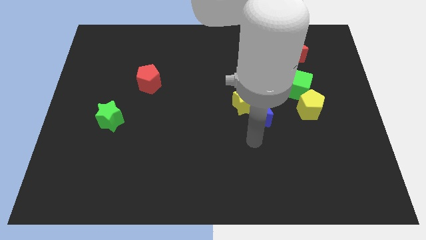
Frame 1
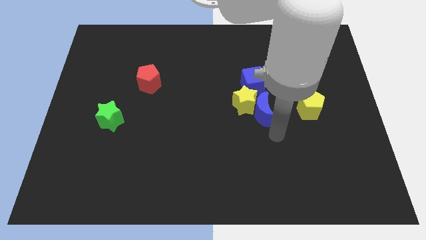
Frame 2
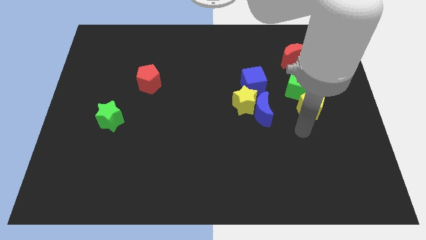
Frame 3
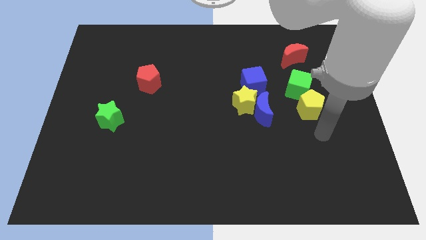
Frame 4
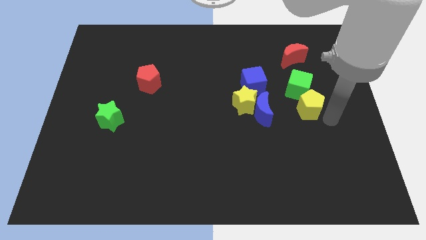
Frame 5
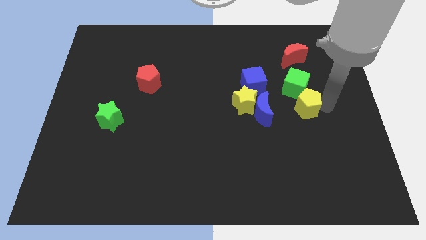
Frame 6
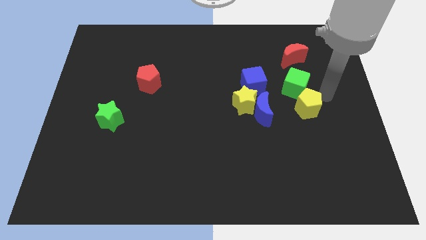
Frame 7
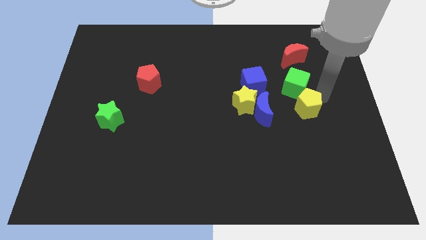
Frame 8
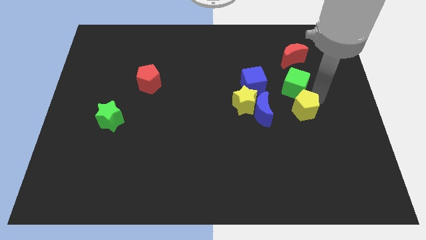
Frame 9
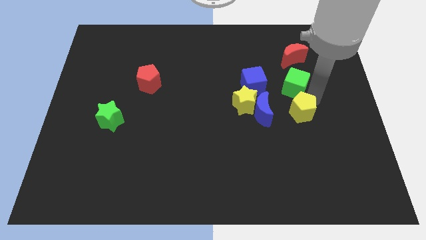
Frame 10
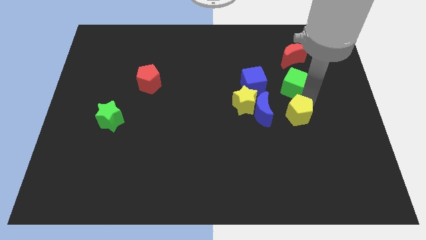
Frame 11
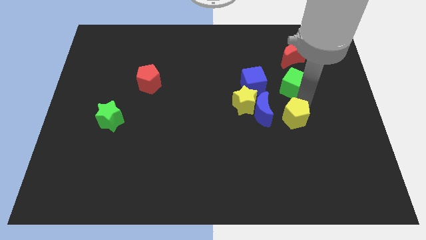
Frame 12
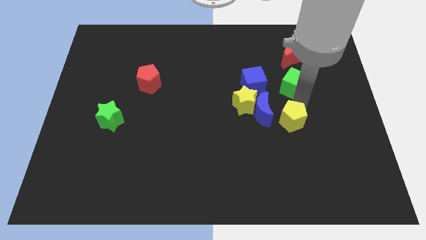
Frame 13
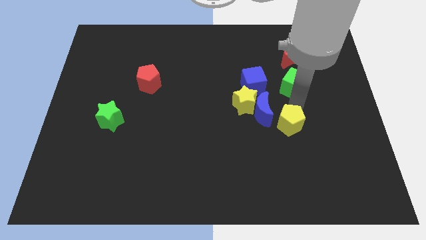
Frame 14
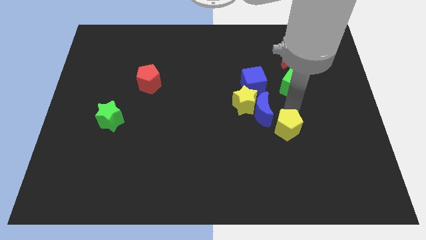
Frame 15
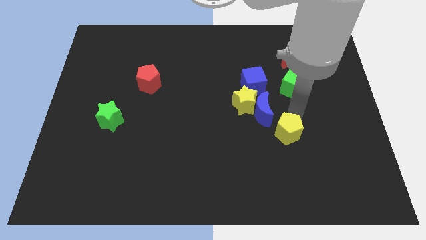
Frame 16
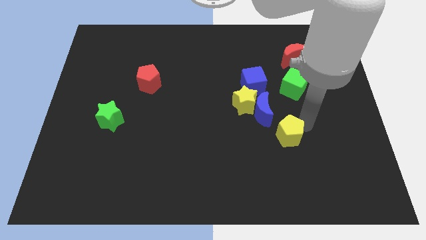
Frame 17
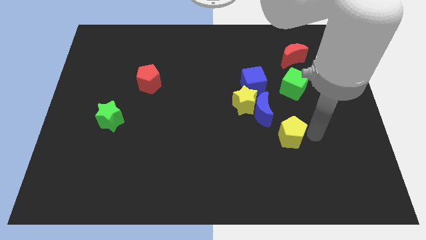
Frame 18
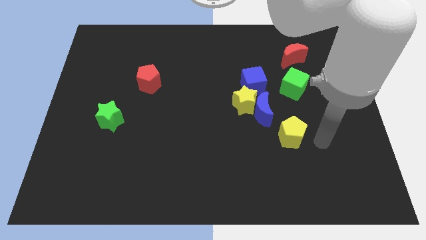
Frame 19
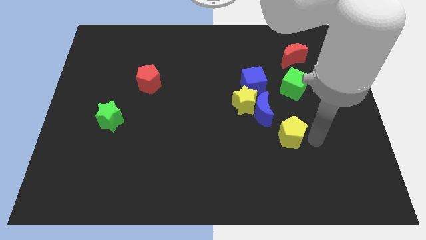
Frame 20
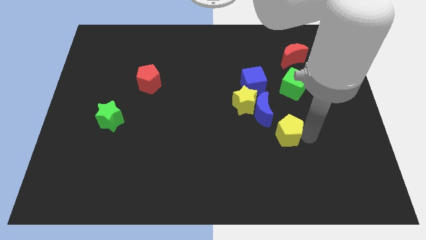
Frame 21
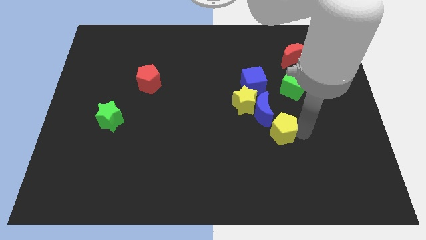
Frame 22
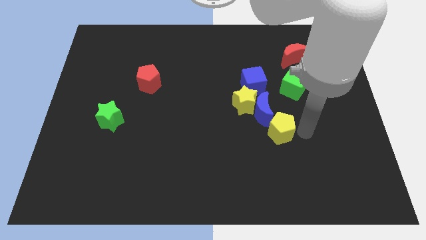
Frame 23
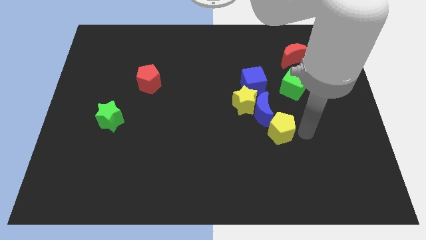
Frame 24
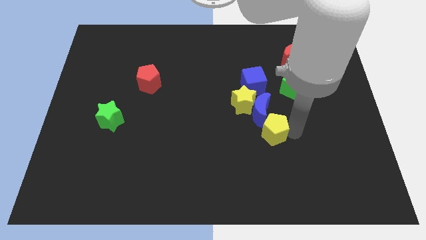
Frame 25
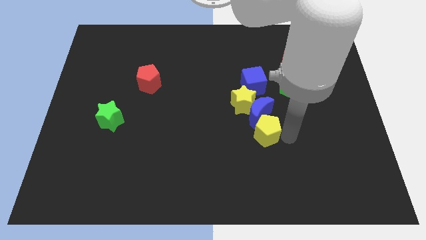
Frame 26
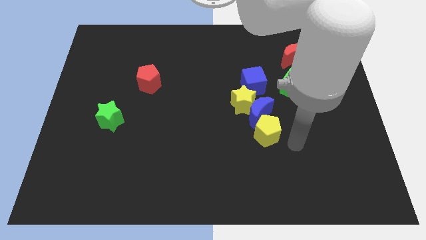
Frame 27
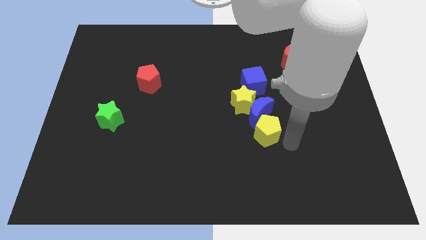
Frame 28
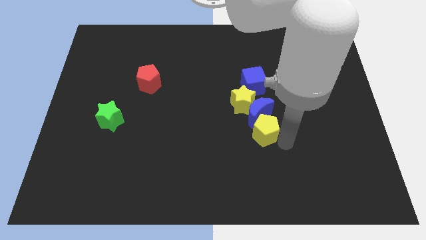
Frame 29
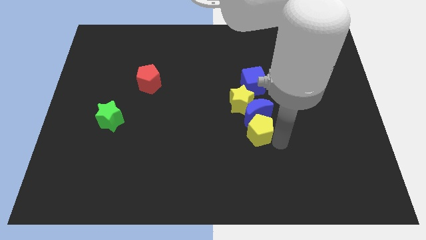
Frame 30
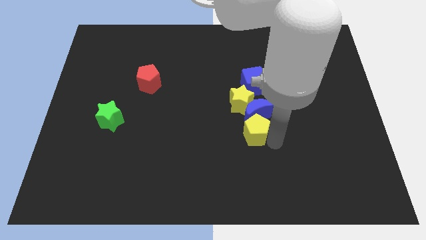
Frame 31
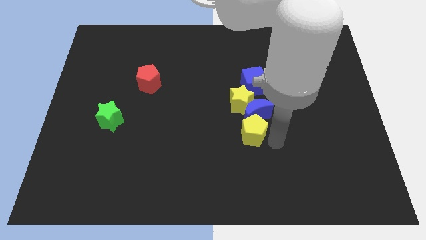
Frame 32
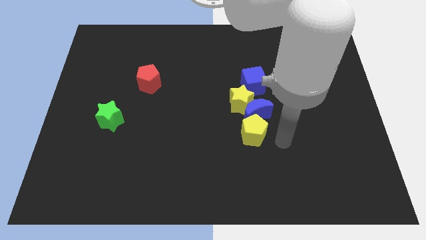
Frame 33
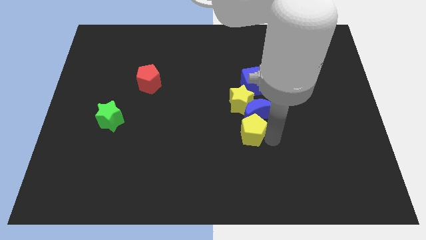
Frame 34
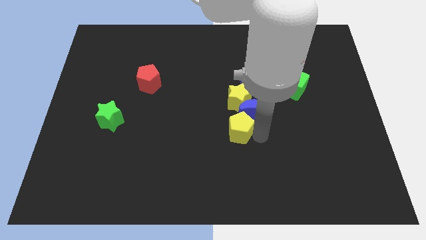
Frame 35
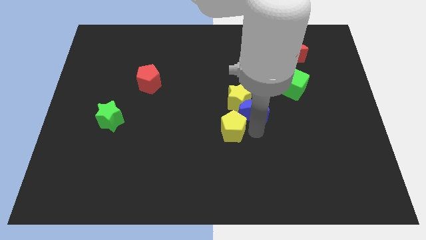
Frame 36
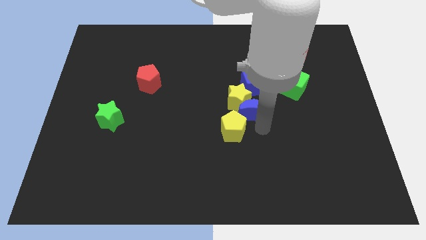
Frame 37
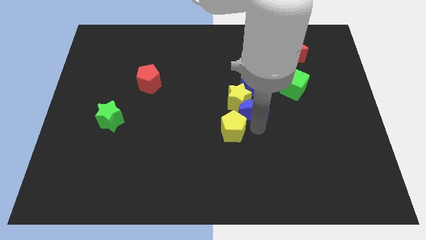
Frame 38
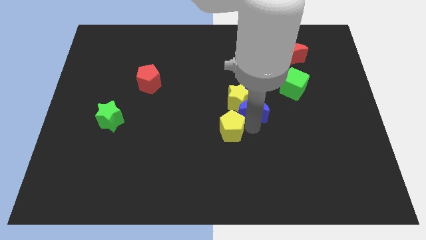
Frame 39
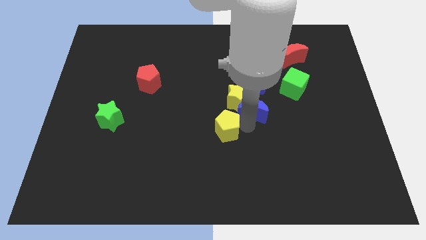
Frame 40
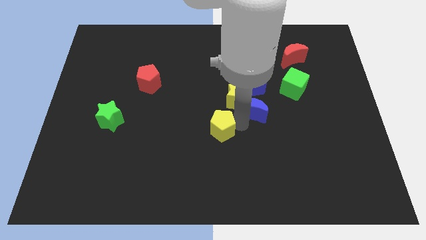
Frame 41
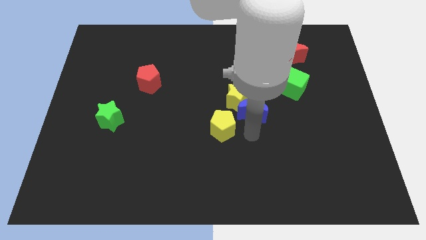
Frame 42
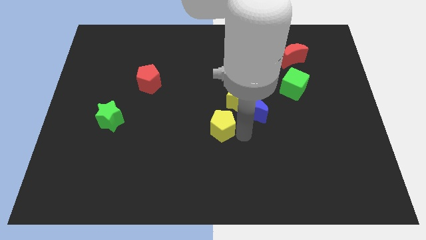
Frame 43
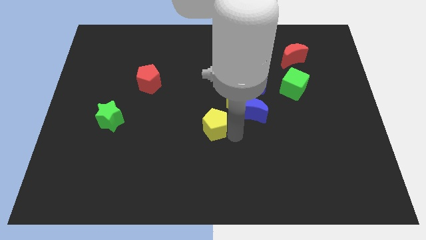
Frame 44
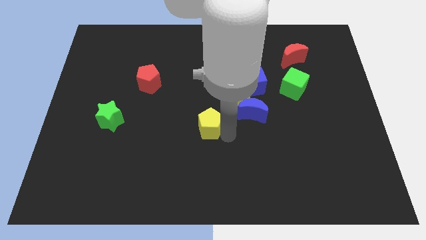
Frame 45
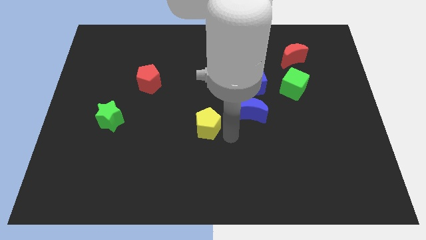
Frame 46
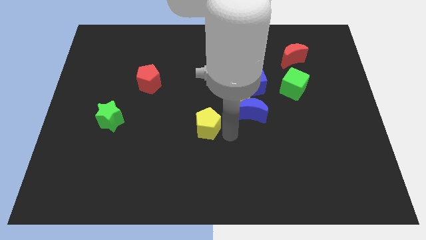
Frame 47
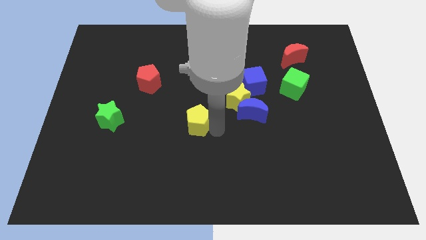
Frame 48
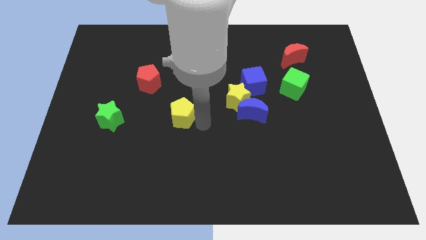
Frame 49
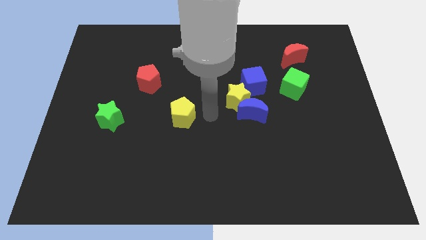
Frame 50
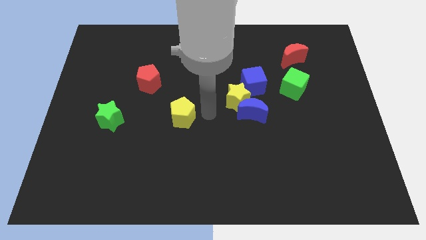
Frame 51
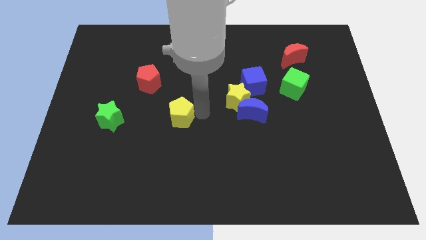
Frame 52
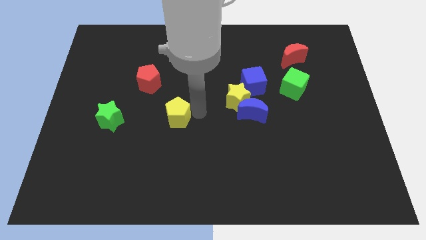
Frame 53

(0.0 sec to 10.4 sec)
put the yellow pentagon right of the green star

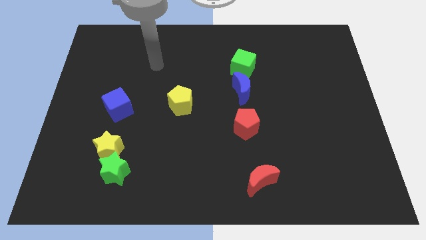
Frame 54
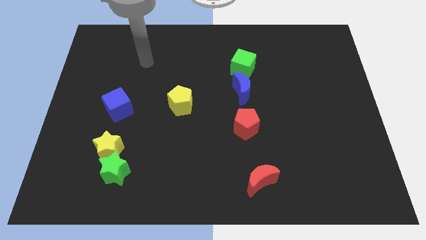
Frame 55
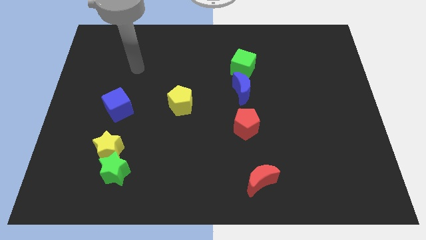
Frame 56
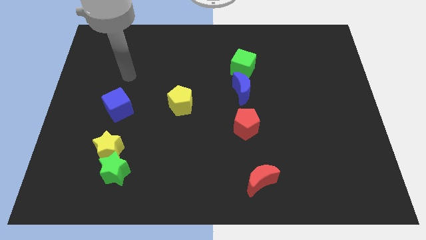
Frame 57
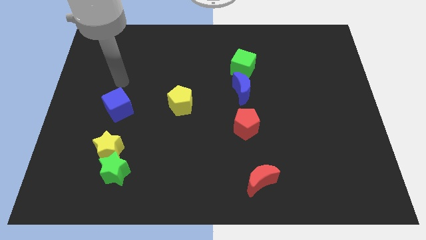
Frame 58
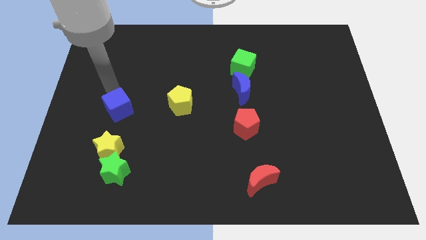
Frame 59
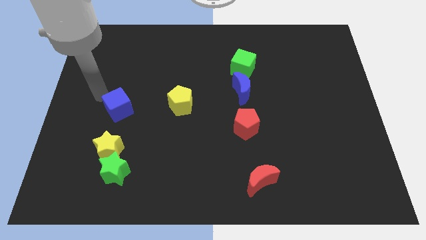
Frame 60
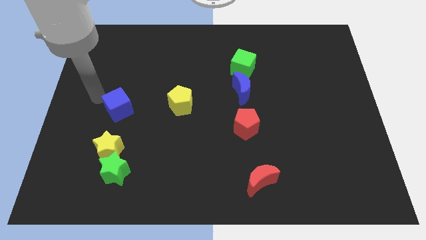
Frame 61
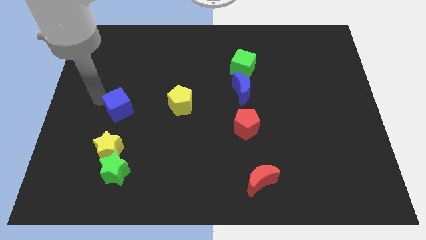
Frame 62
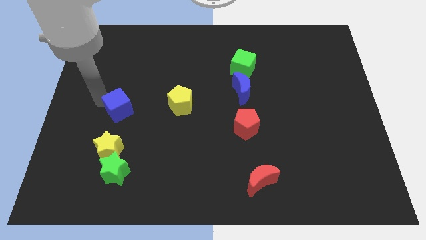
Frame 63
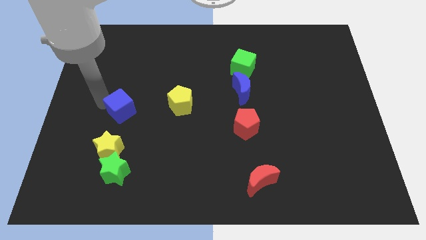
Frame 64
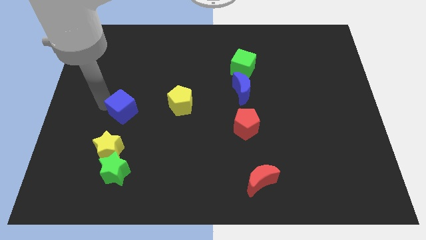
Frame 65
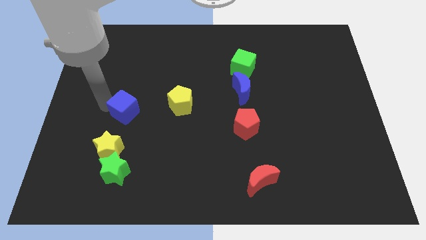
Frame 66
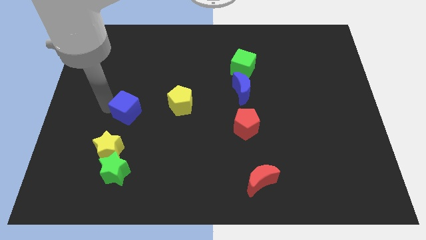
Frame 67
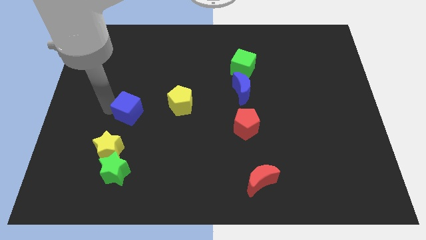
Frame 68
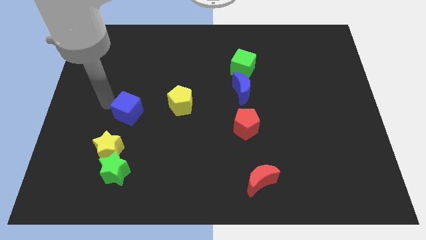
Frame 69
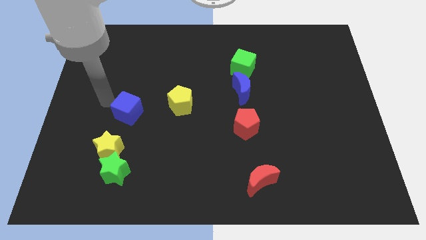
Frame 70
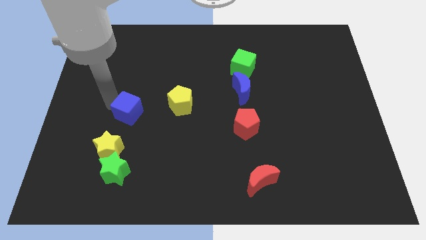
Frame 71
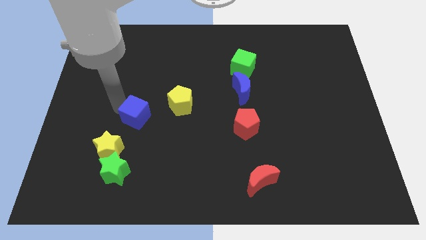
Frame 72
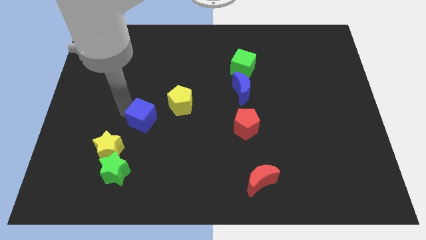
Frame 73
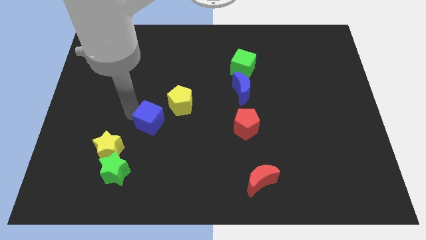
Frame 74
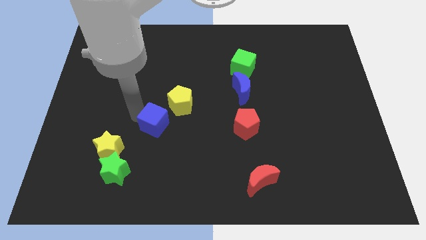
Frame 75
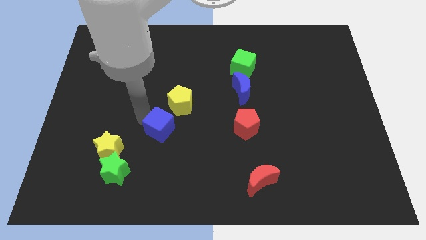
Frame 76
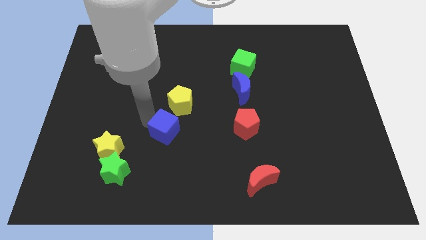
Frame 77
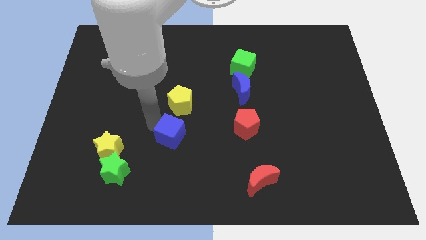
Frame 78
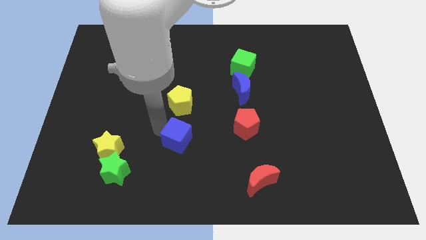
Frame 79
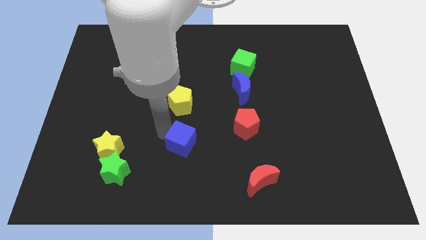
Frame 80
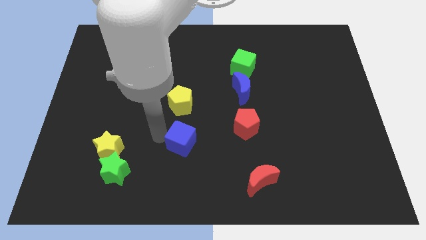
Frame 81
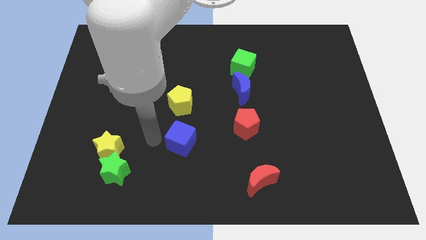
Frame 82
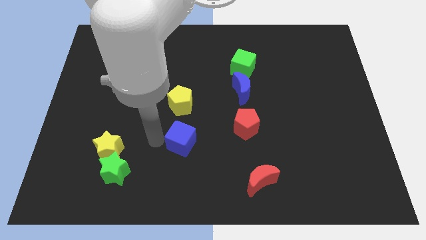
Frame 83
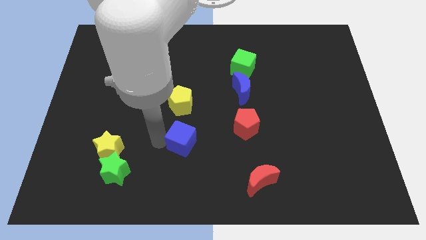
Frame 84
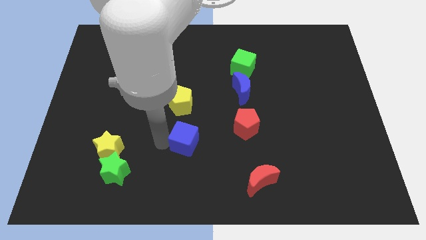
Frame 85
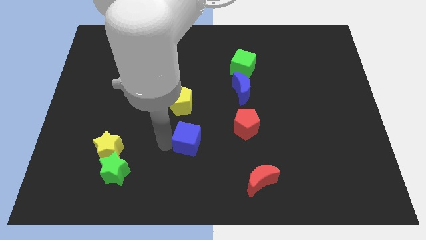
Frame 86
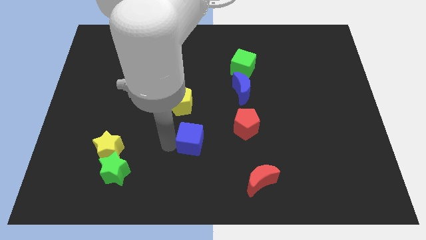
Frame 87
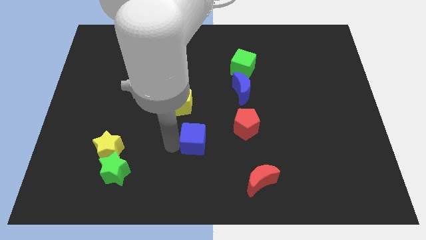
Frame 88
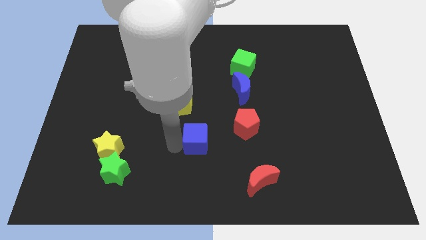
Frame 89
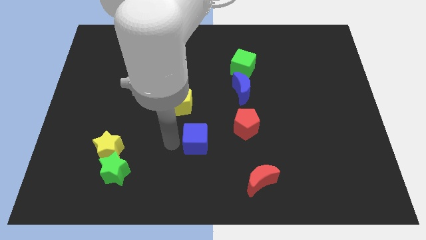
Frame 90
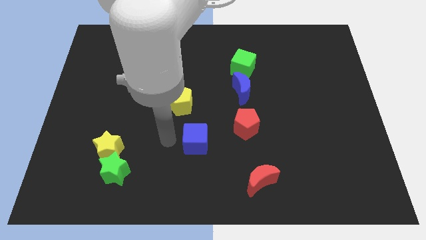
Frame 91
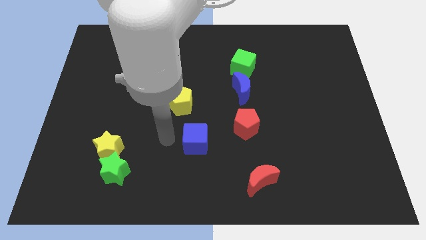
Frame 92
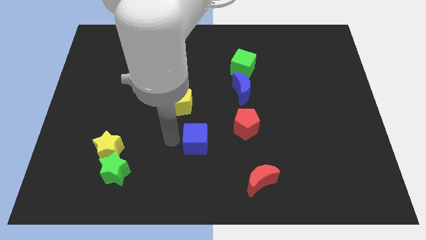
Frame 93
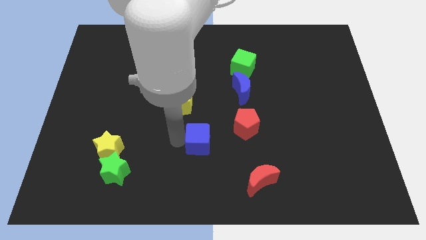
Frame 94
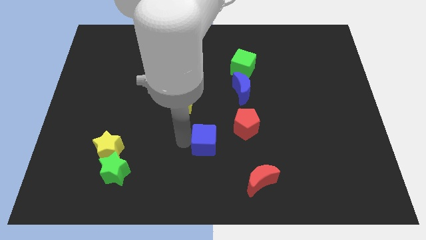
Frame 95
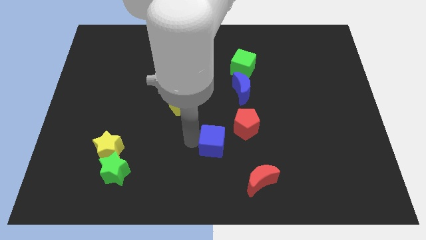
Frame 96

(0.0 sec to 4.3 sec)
push the blue cube diagonally up and to the left of the red moon
